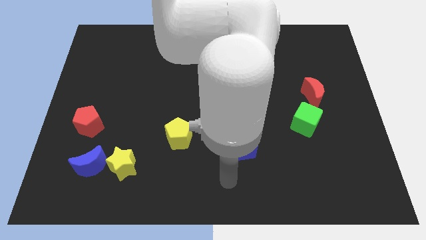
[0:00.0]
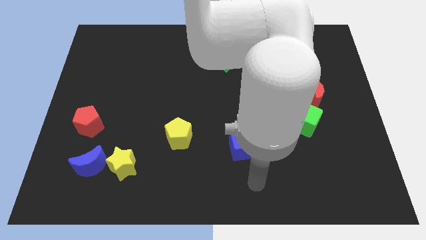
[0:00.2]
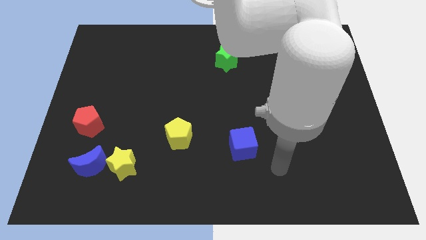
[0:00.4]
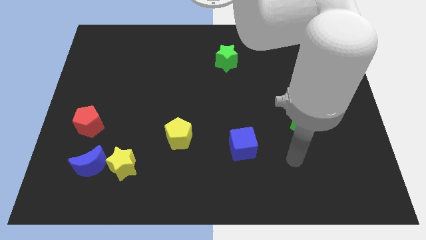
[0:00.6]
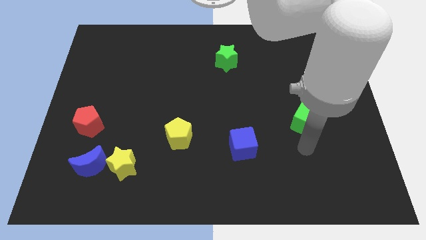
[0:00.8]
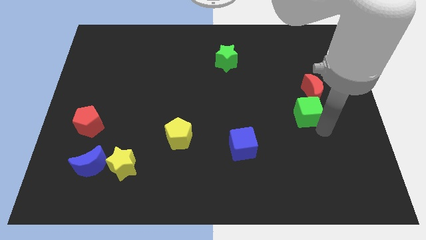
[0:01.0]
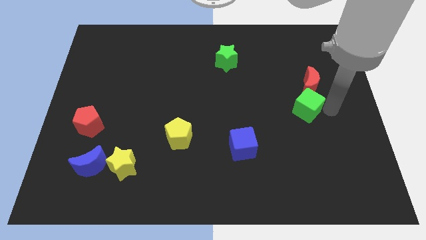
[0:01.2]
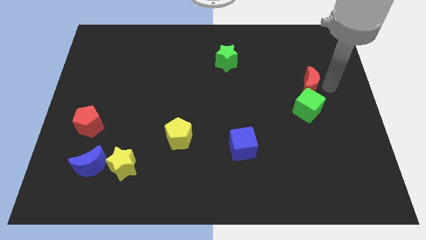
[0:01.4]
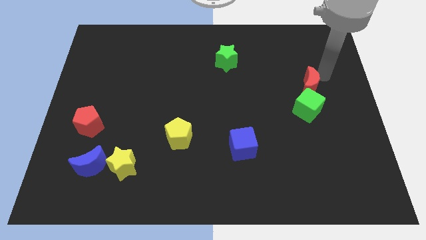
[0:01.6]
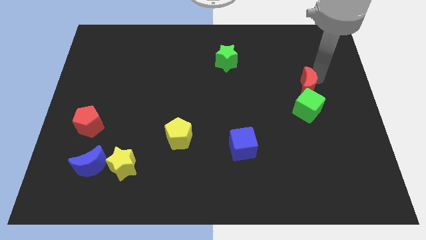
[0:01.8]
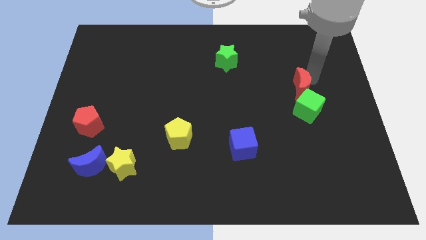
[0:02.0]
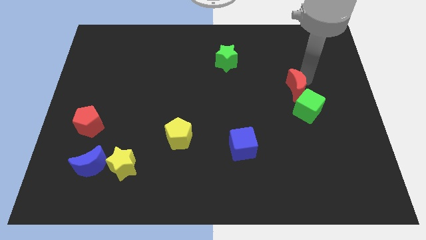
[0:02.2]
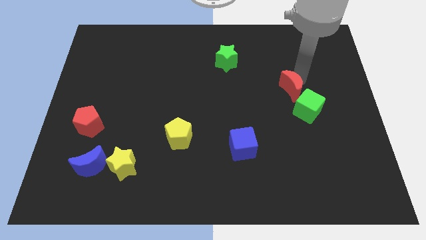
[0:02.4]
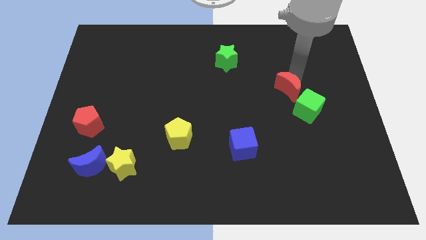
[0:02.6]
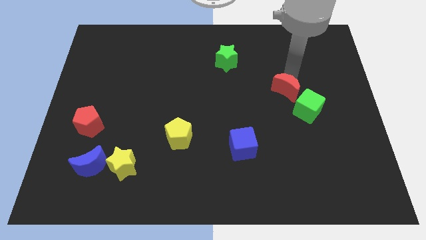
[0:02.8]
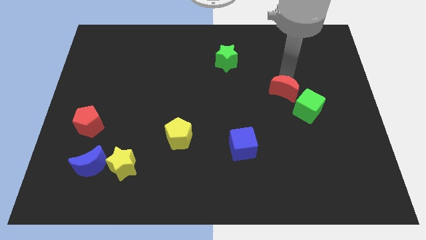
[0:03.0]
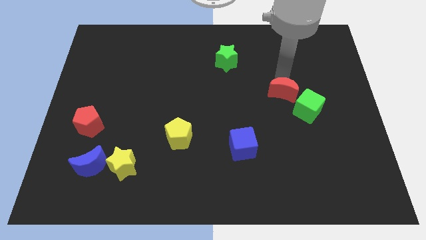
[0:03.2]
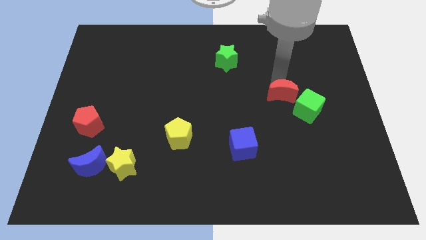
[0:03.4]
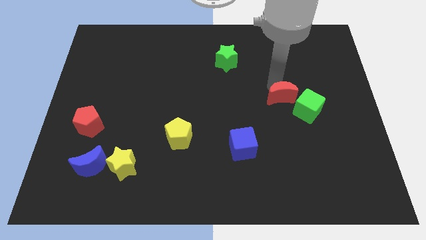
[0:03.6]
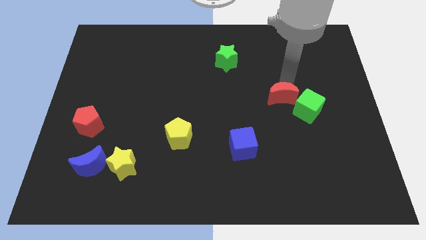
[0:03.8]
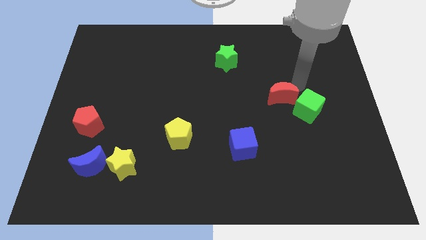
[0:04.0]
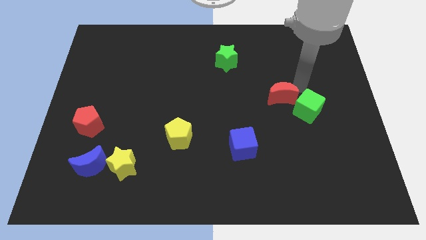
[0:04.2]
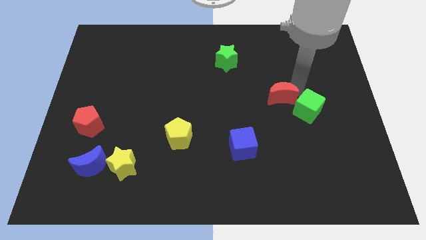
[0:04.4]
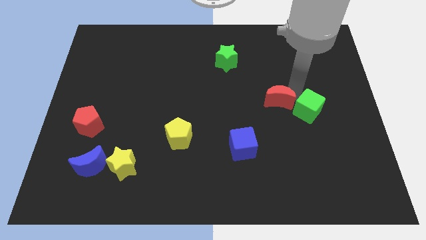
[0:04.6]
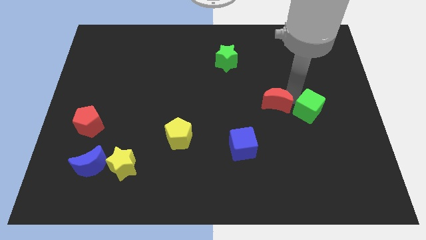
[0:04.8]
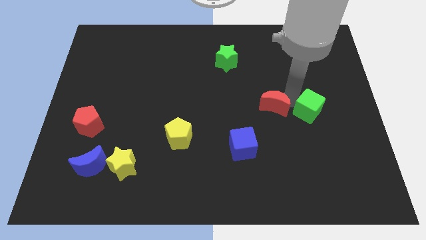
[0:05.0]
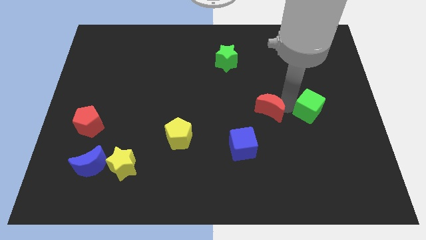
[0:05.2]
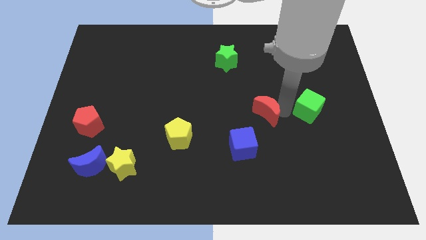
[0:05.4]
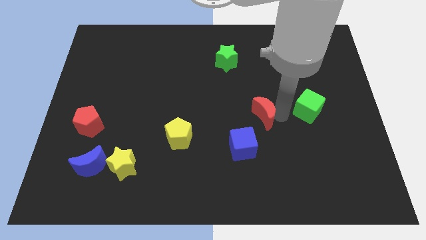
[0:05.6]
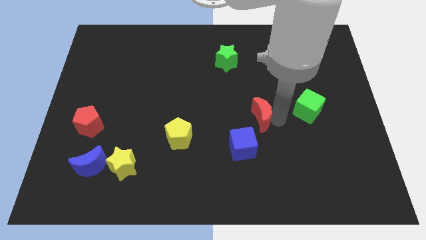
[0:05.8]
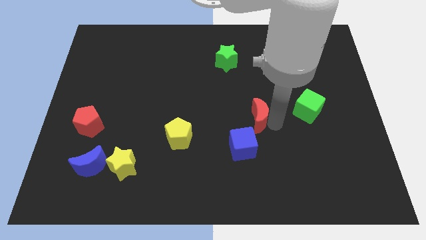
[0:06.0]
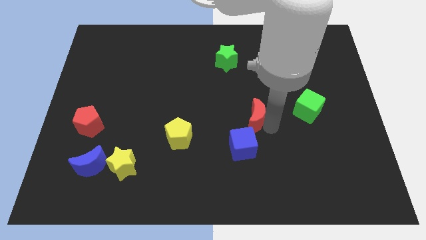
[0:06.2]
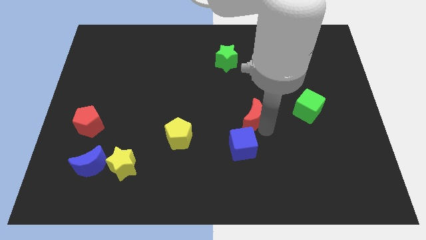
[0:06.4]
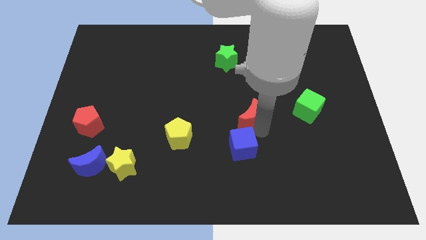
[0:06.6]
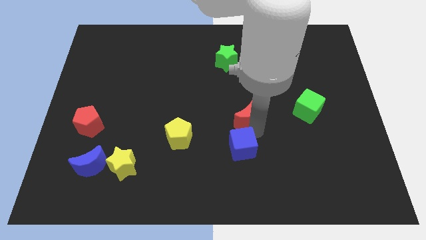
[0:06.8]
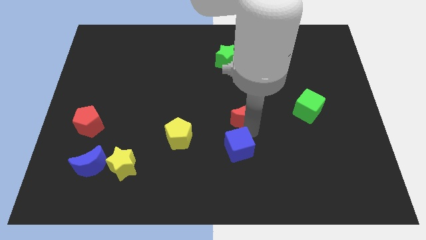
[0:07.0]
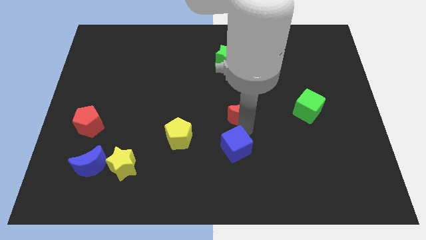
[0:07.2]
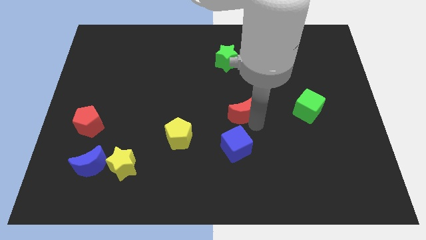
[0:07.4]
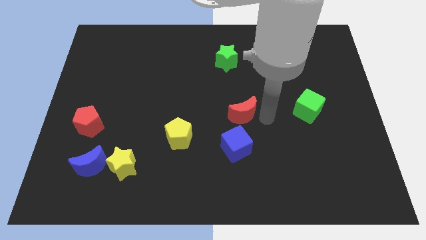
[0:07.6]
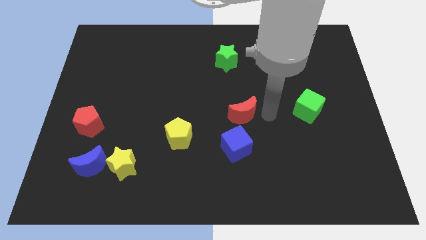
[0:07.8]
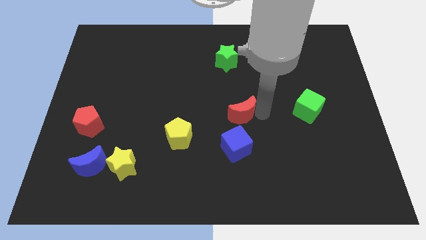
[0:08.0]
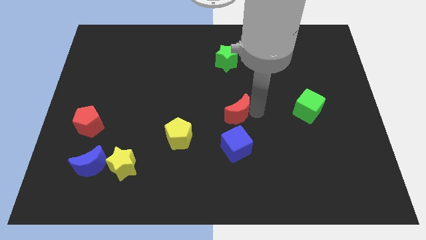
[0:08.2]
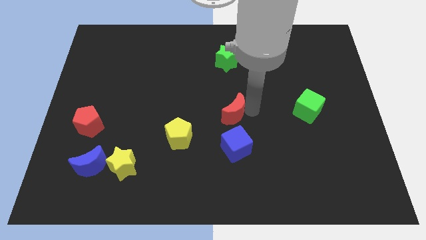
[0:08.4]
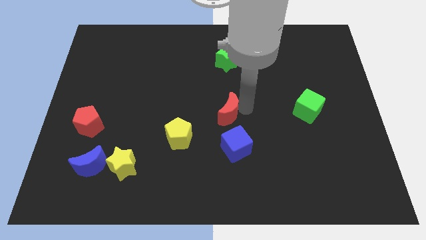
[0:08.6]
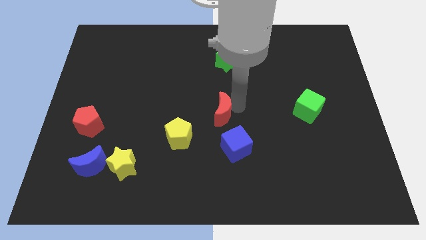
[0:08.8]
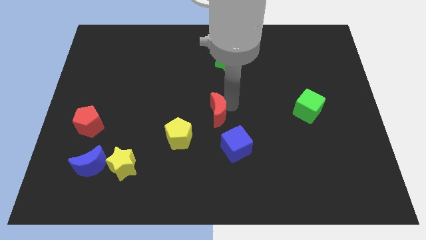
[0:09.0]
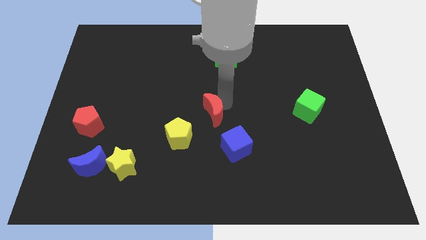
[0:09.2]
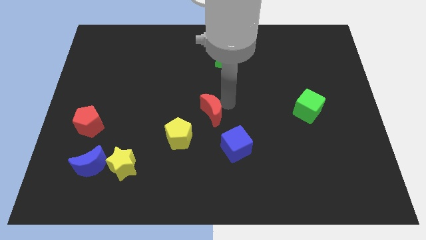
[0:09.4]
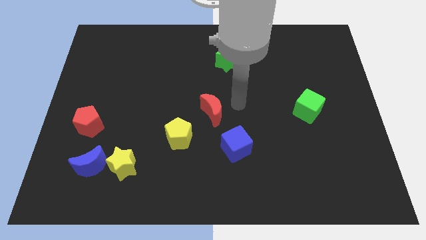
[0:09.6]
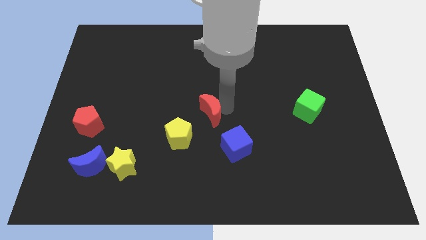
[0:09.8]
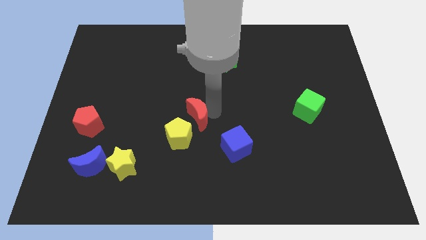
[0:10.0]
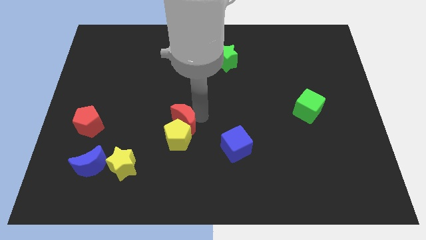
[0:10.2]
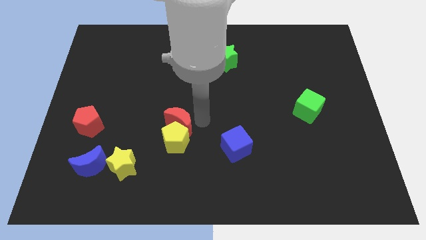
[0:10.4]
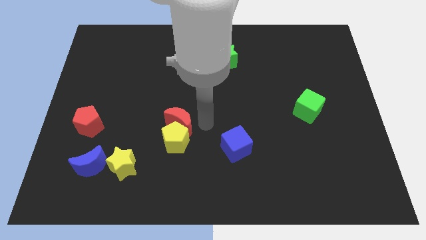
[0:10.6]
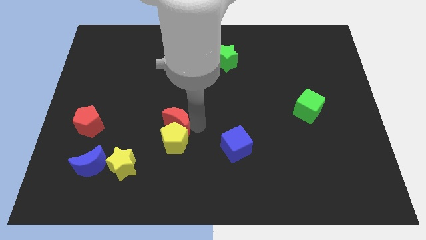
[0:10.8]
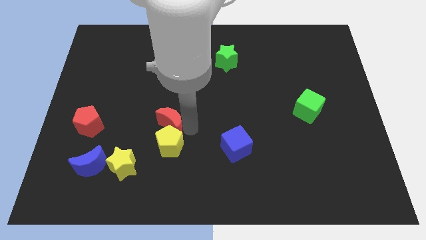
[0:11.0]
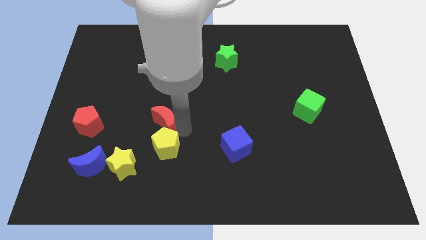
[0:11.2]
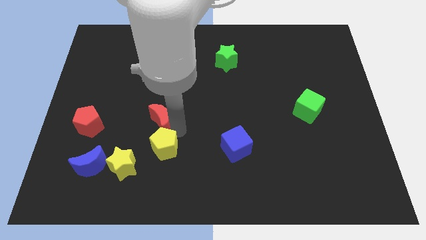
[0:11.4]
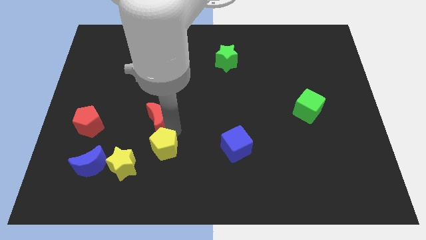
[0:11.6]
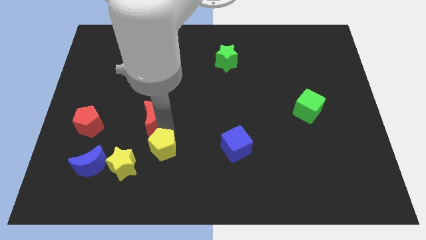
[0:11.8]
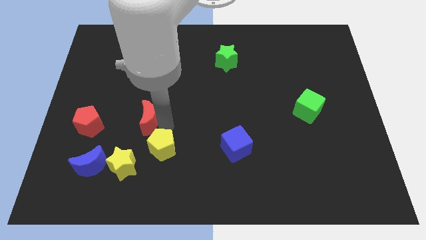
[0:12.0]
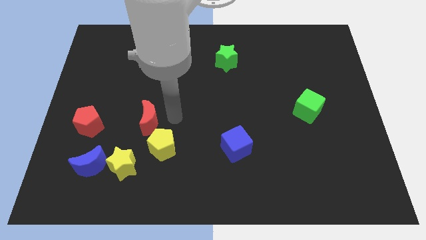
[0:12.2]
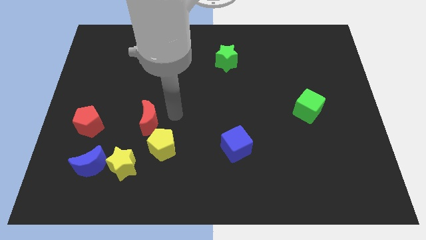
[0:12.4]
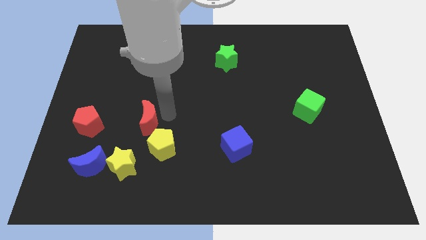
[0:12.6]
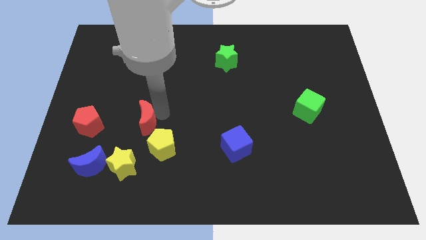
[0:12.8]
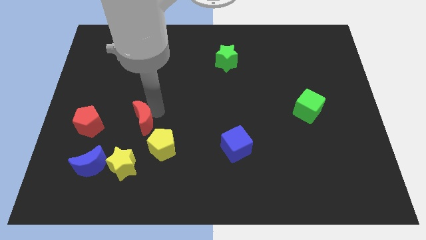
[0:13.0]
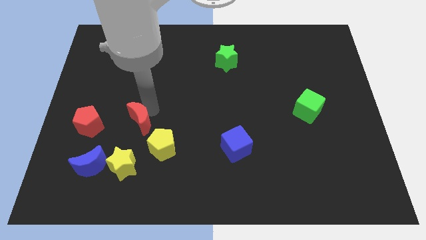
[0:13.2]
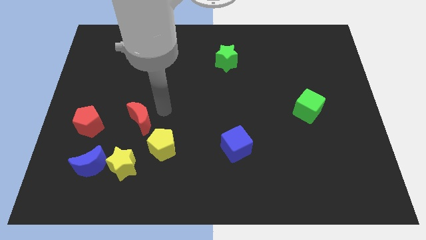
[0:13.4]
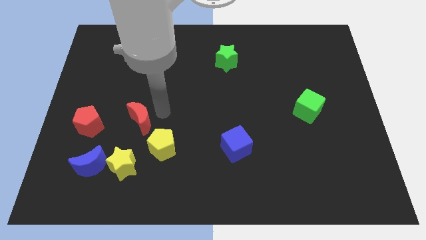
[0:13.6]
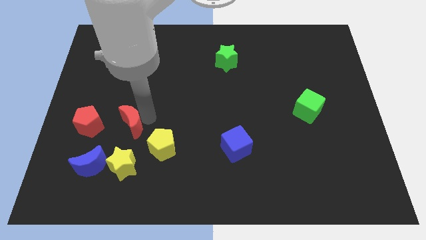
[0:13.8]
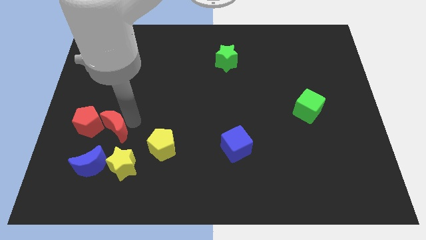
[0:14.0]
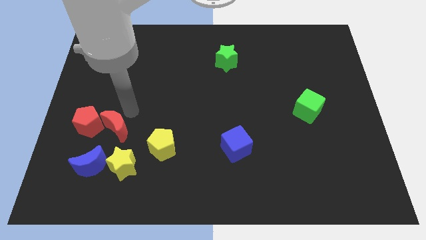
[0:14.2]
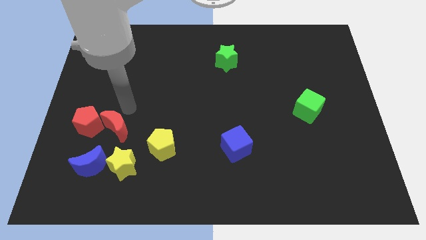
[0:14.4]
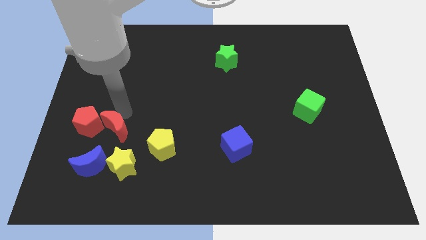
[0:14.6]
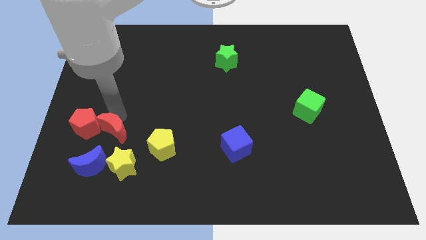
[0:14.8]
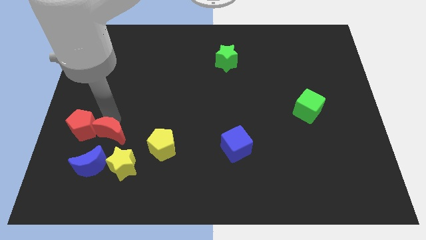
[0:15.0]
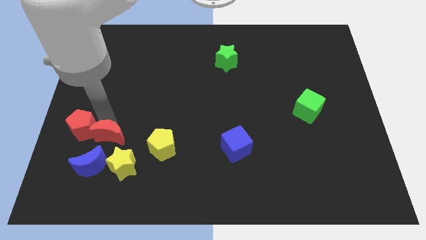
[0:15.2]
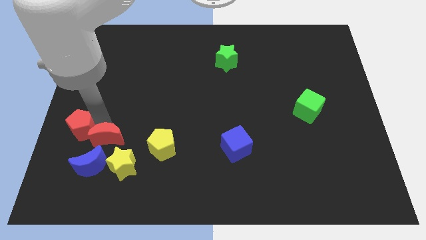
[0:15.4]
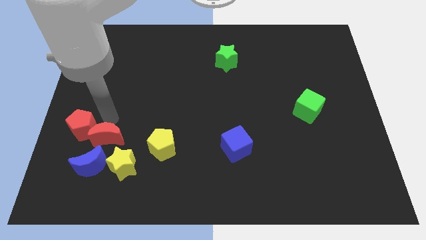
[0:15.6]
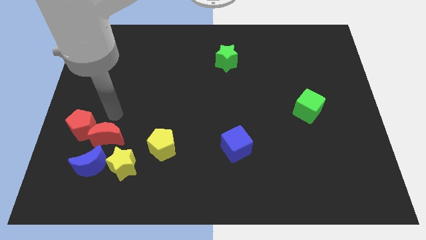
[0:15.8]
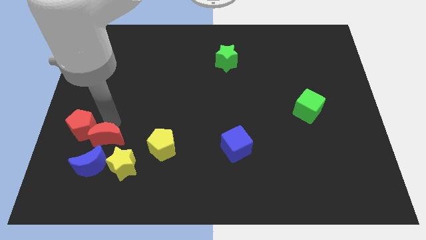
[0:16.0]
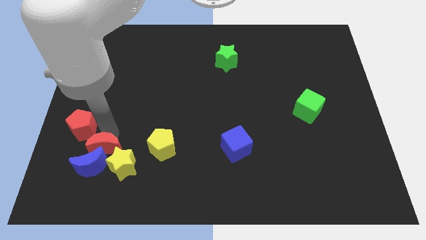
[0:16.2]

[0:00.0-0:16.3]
move the red moon close to the blue moon
